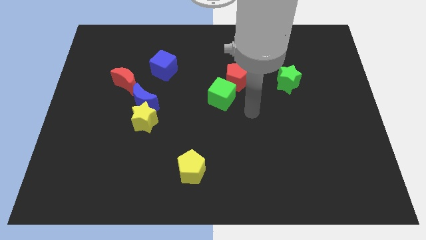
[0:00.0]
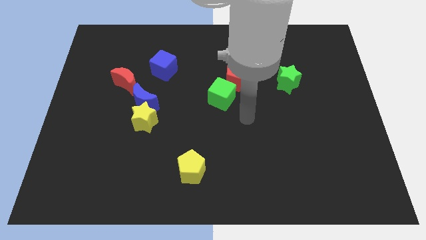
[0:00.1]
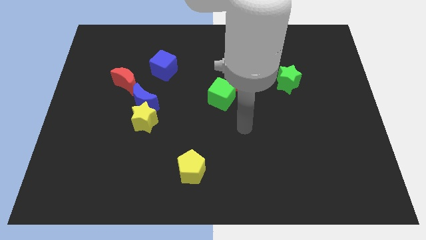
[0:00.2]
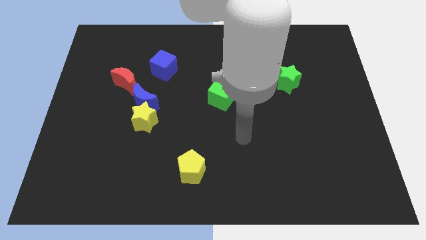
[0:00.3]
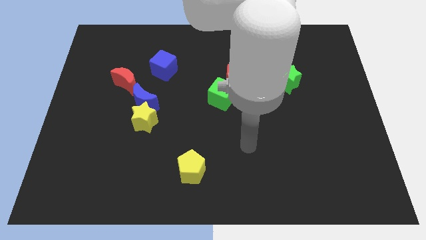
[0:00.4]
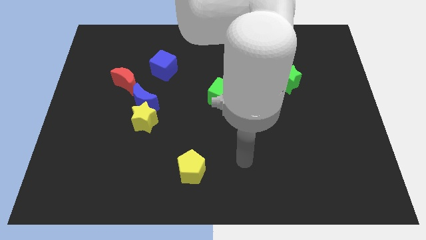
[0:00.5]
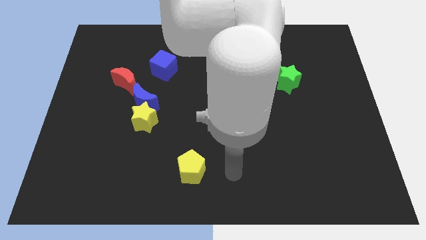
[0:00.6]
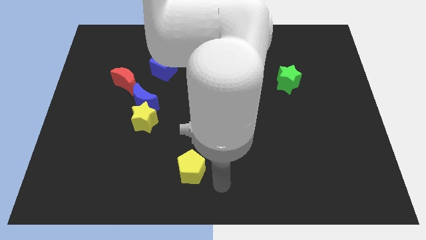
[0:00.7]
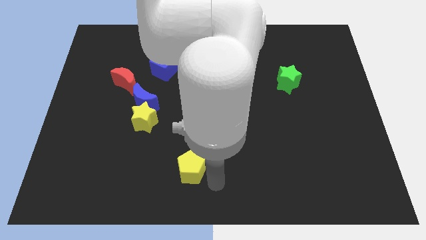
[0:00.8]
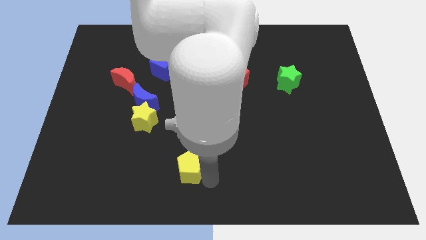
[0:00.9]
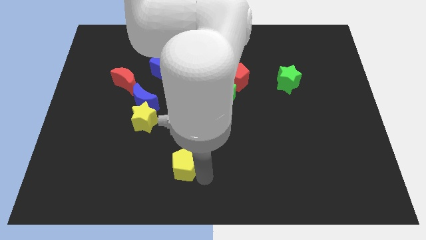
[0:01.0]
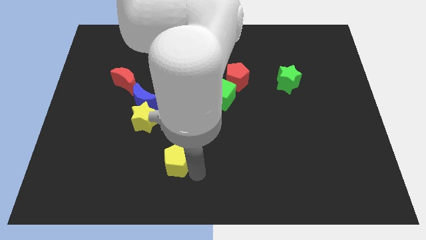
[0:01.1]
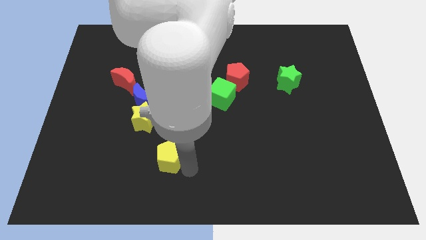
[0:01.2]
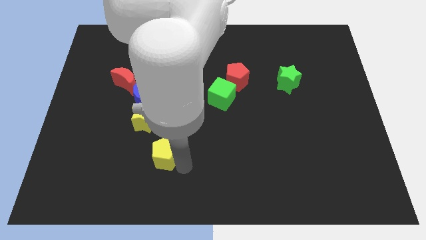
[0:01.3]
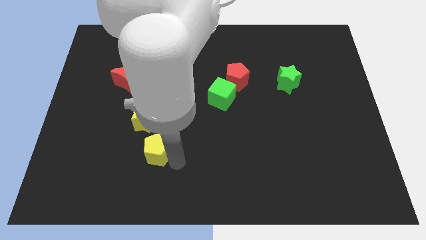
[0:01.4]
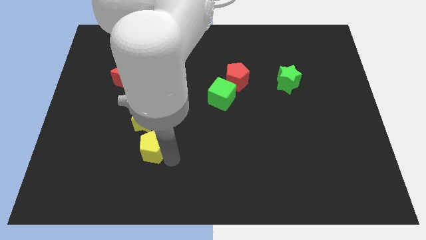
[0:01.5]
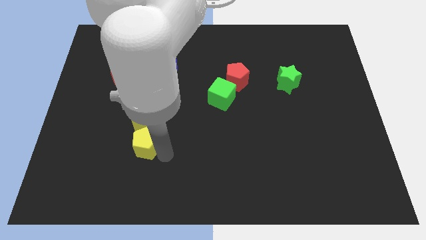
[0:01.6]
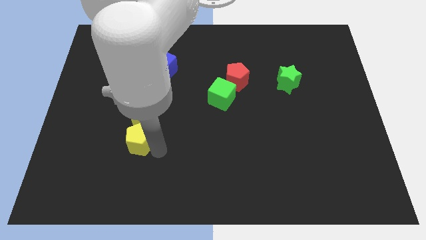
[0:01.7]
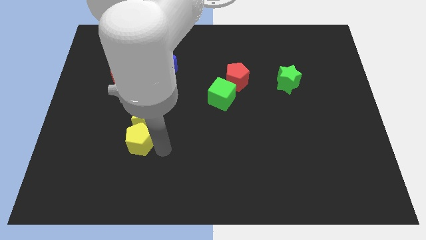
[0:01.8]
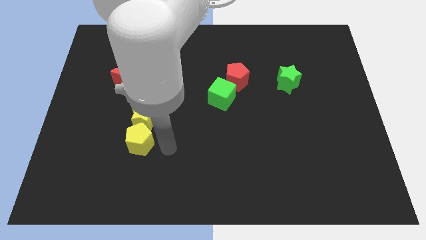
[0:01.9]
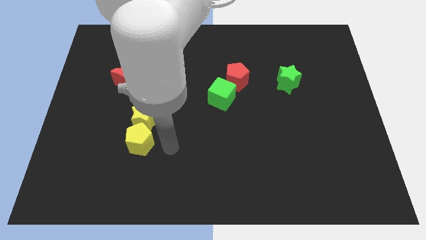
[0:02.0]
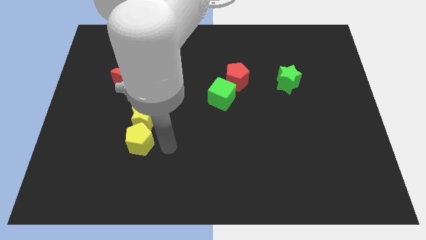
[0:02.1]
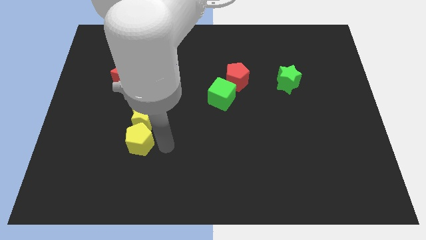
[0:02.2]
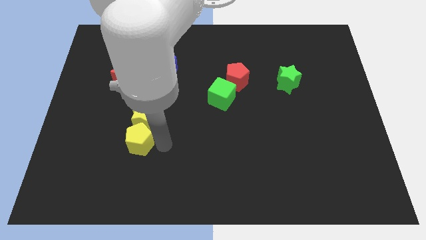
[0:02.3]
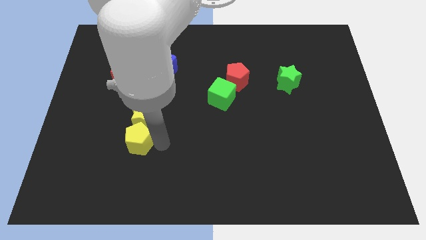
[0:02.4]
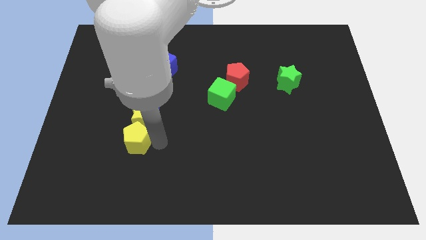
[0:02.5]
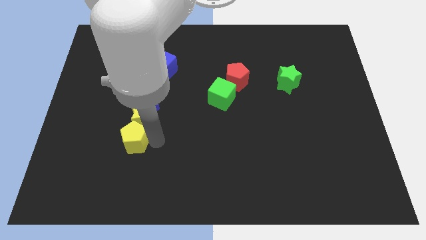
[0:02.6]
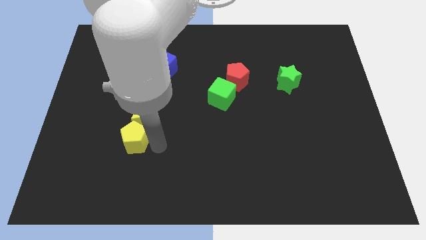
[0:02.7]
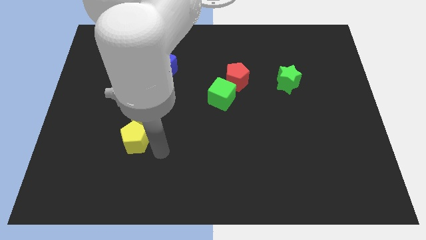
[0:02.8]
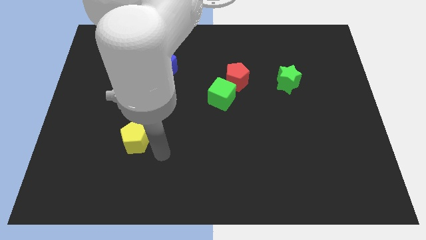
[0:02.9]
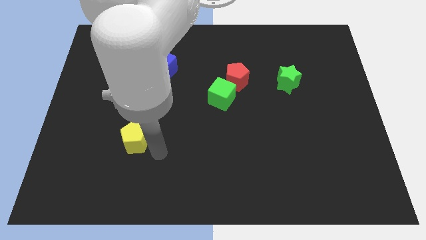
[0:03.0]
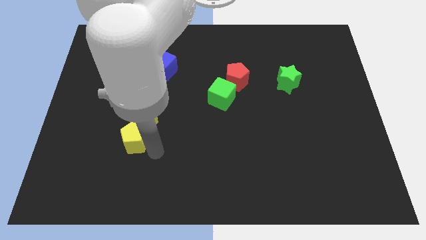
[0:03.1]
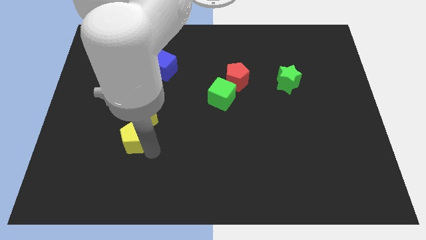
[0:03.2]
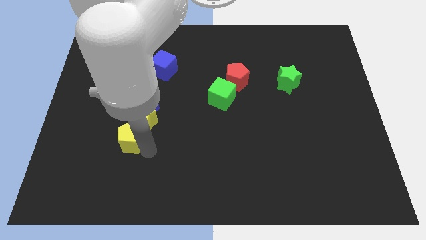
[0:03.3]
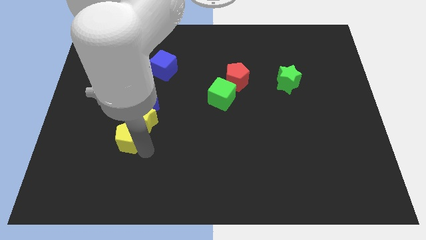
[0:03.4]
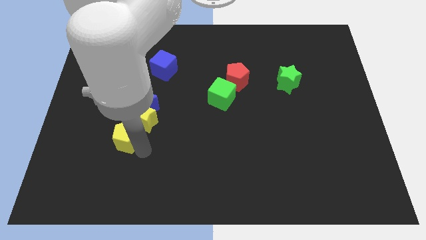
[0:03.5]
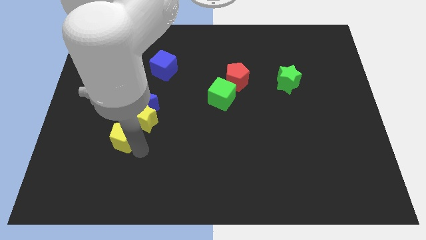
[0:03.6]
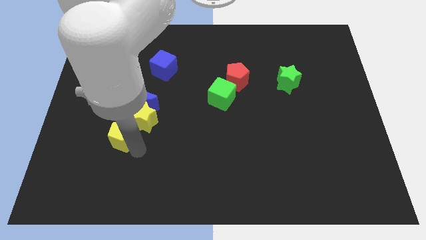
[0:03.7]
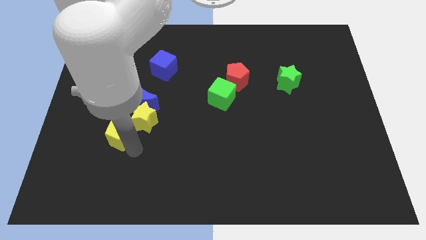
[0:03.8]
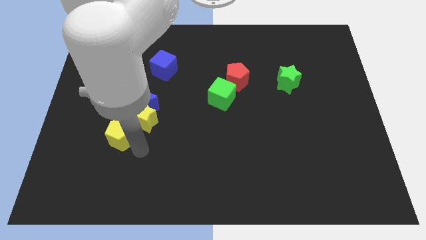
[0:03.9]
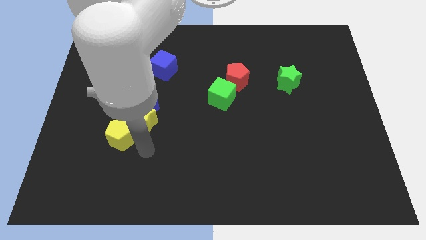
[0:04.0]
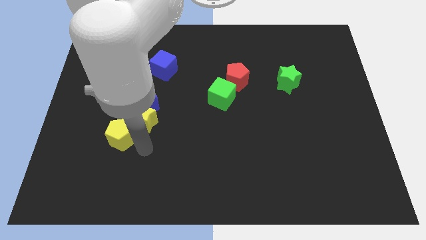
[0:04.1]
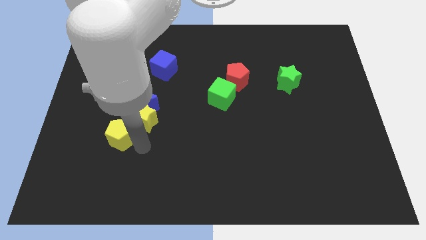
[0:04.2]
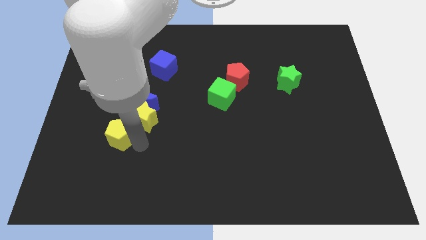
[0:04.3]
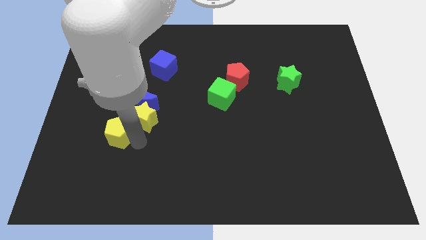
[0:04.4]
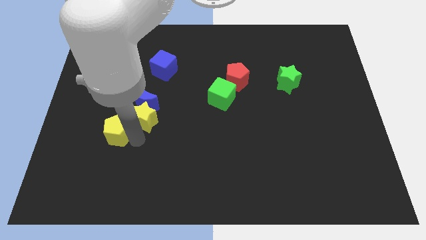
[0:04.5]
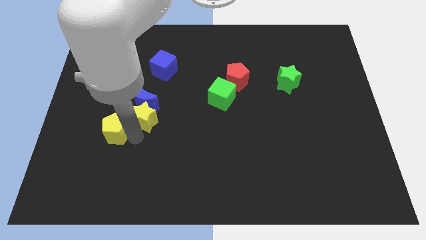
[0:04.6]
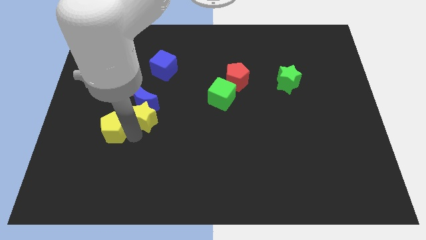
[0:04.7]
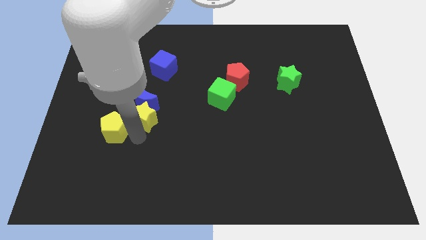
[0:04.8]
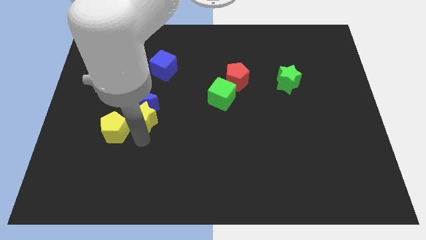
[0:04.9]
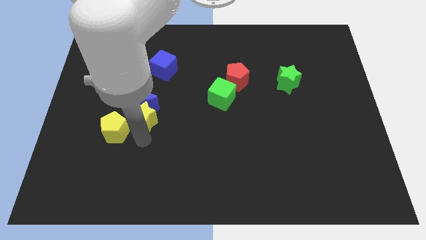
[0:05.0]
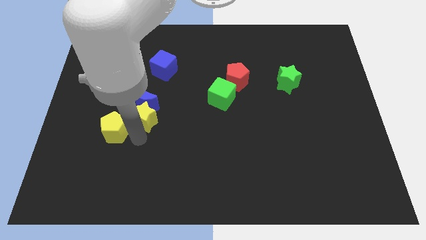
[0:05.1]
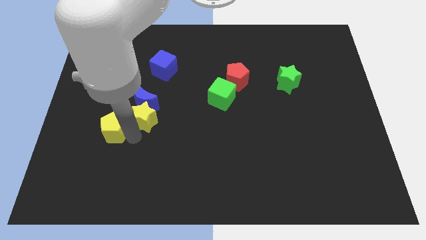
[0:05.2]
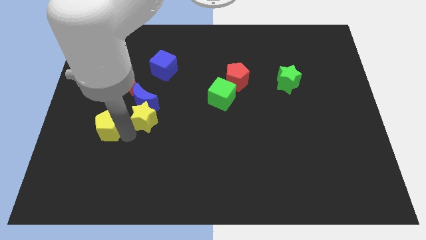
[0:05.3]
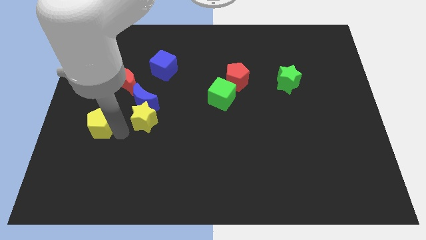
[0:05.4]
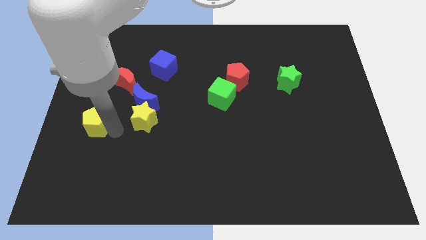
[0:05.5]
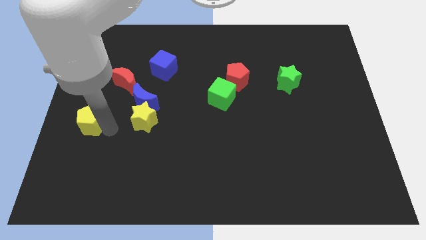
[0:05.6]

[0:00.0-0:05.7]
push the yellow pentagon to the left side of the board

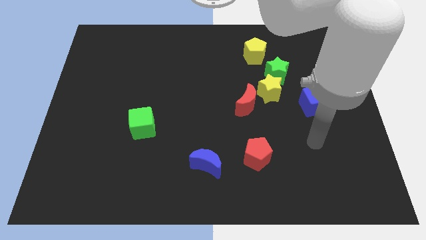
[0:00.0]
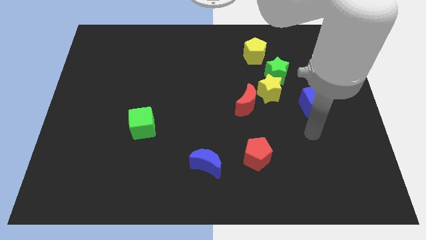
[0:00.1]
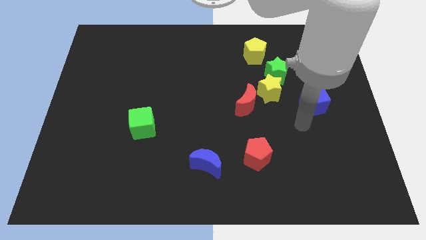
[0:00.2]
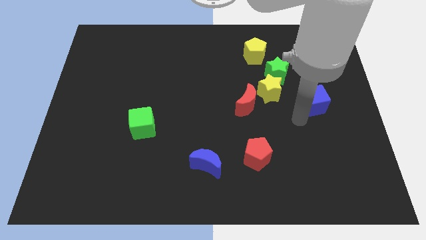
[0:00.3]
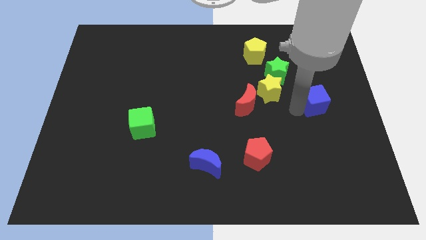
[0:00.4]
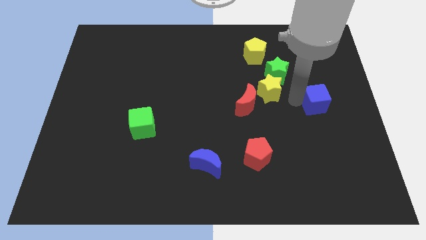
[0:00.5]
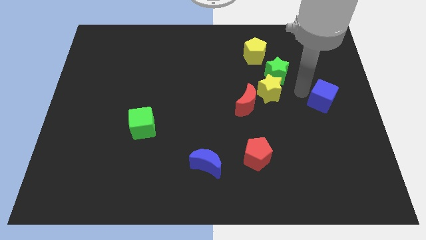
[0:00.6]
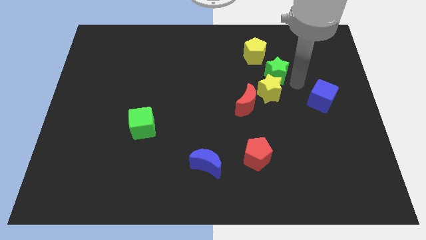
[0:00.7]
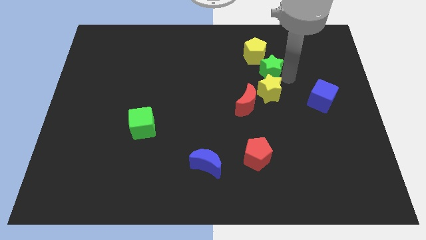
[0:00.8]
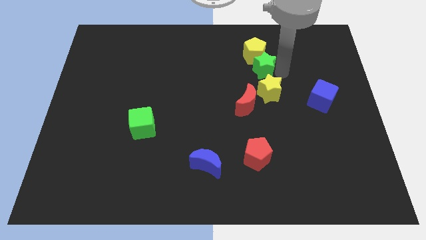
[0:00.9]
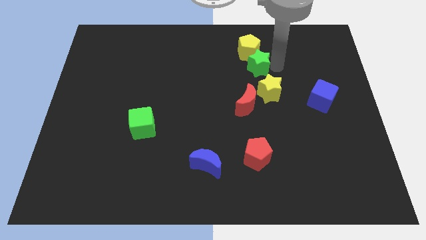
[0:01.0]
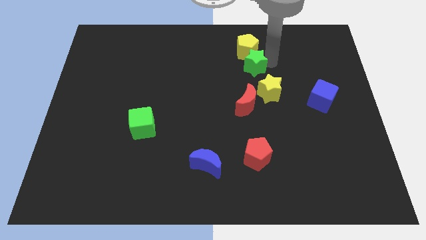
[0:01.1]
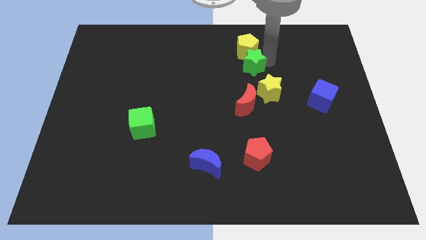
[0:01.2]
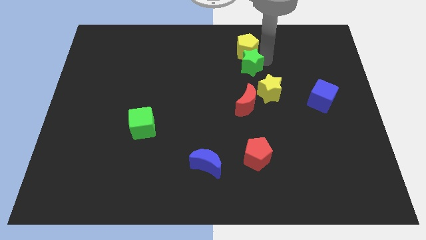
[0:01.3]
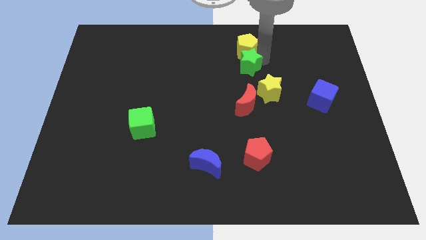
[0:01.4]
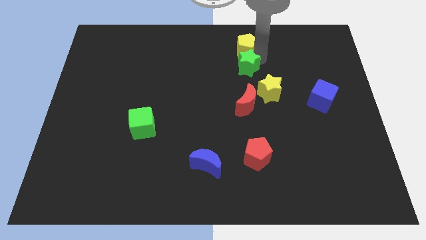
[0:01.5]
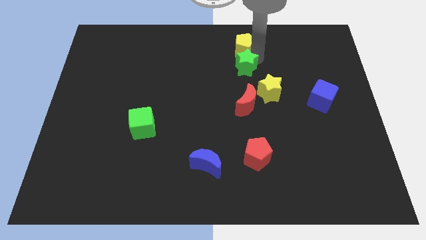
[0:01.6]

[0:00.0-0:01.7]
slide the yellow pentagon to the top side

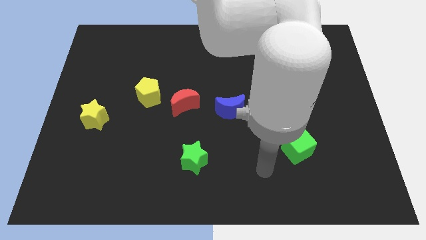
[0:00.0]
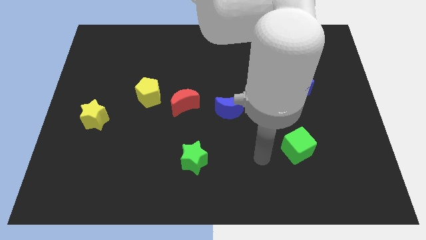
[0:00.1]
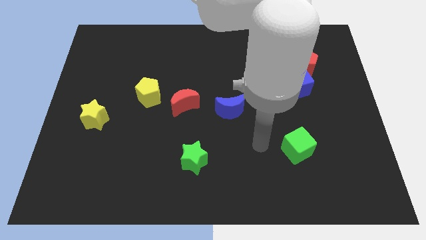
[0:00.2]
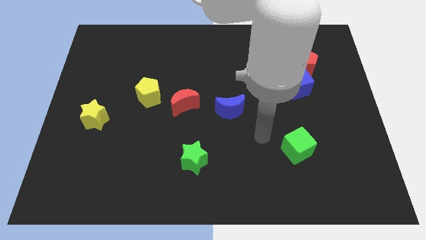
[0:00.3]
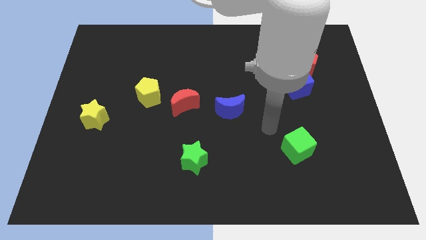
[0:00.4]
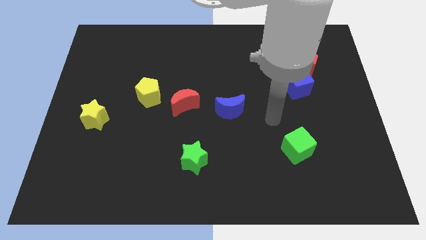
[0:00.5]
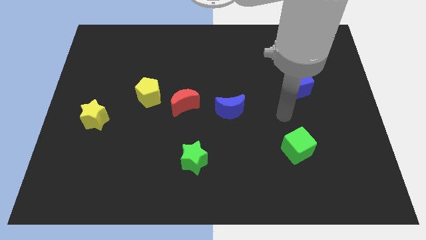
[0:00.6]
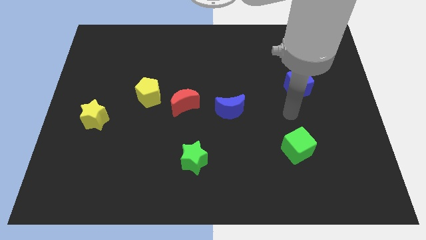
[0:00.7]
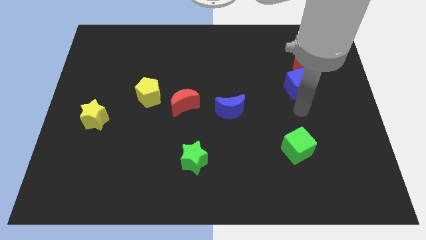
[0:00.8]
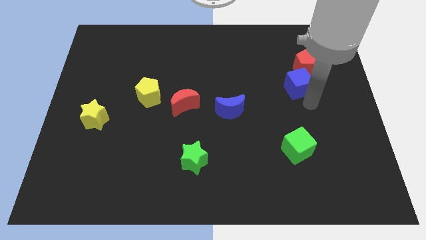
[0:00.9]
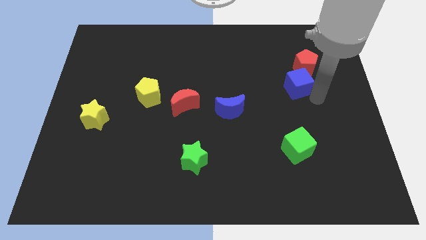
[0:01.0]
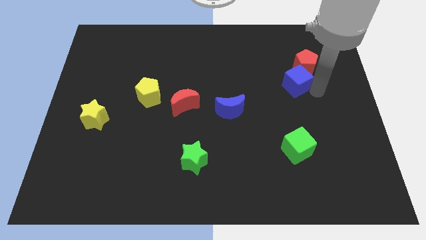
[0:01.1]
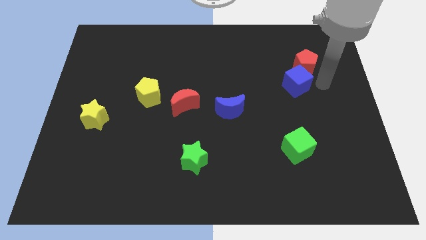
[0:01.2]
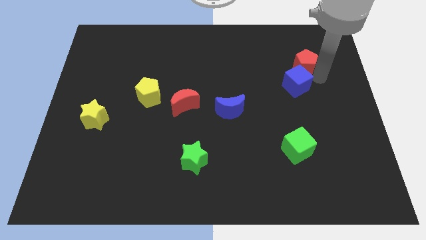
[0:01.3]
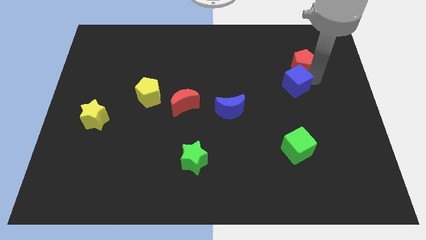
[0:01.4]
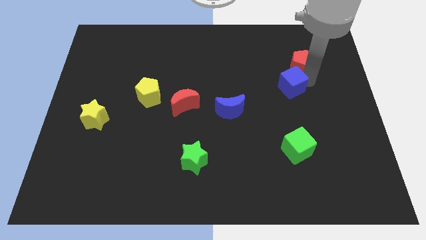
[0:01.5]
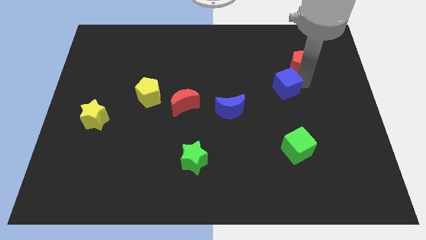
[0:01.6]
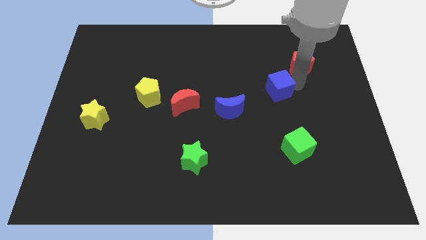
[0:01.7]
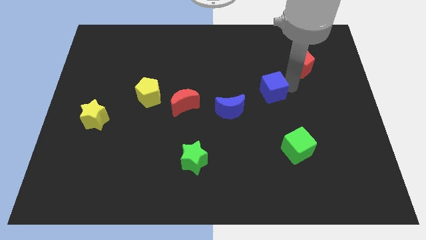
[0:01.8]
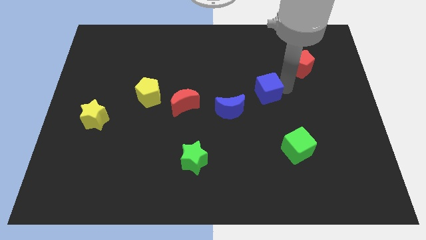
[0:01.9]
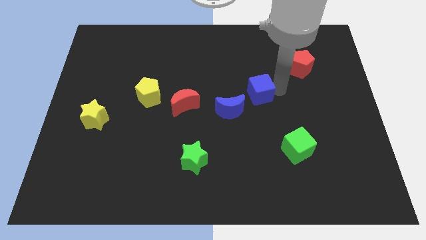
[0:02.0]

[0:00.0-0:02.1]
put the blue cube to the middle of the board
